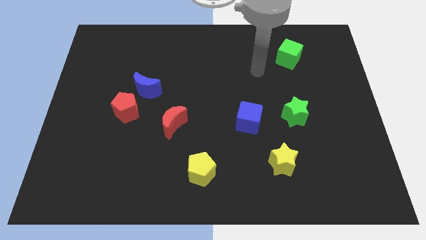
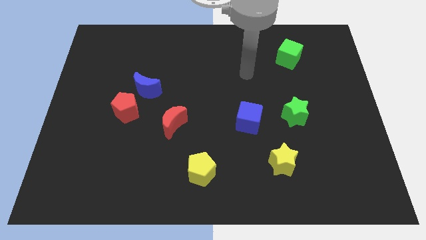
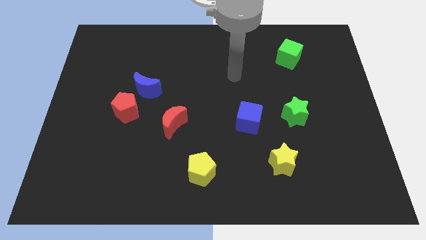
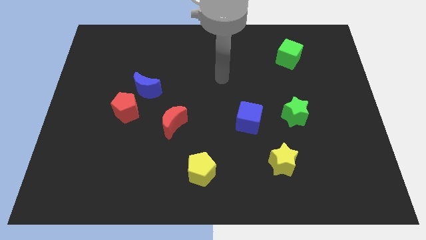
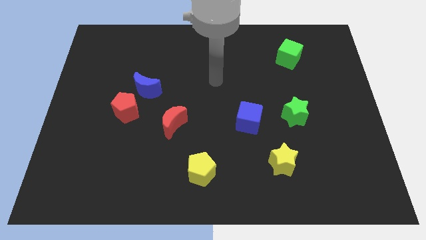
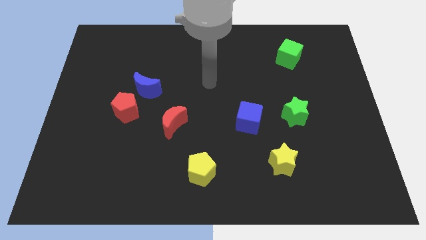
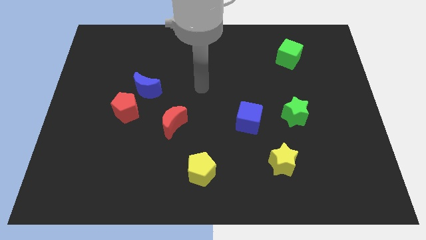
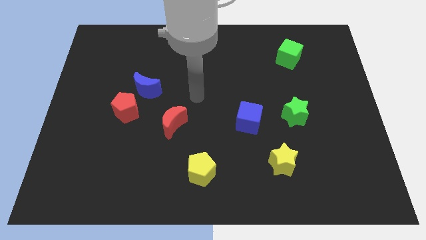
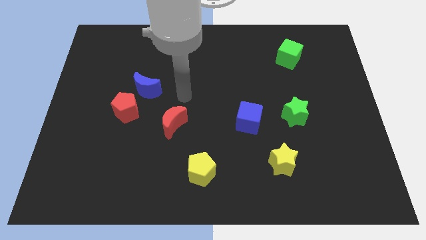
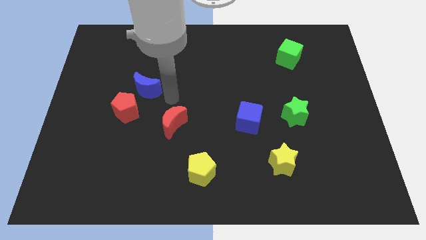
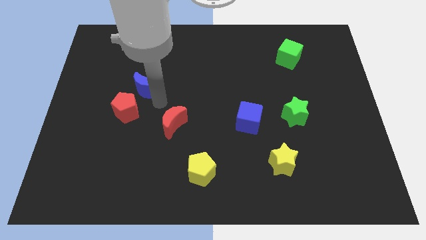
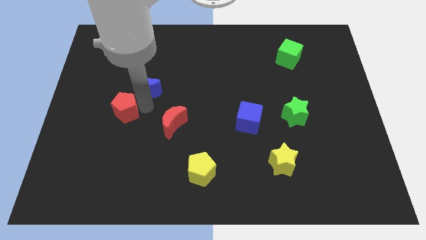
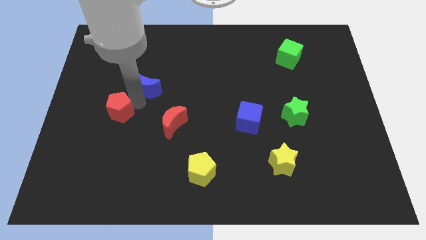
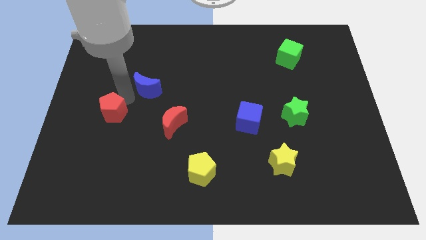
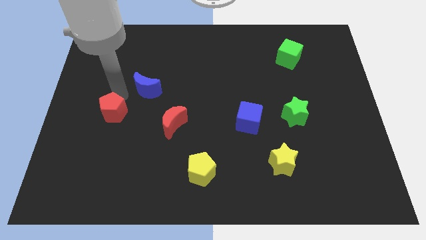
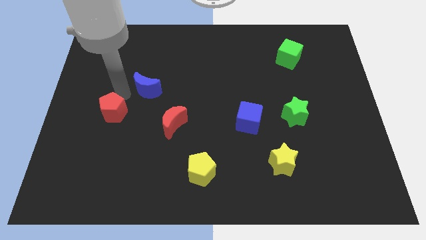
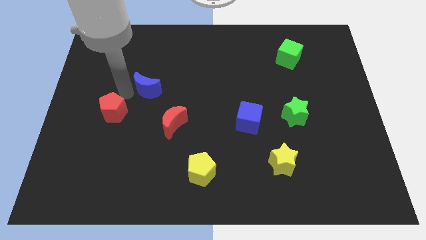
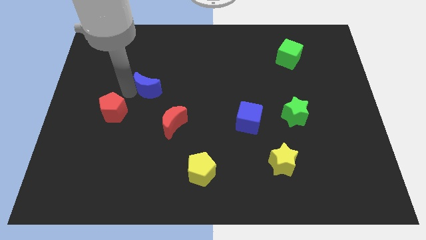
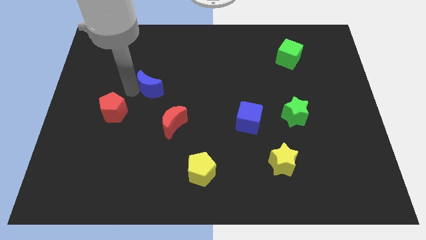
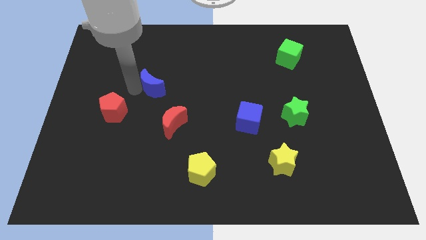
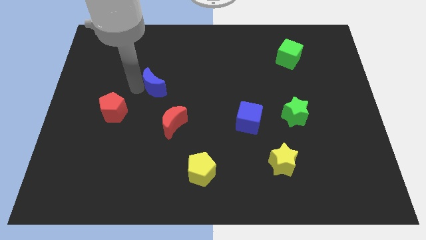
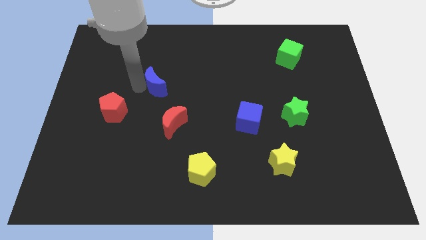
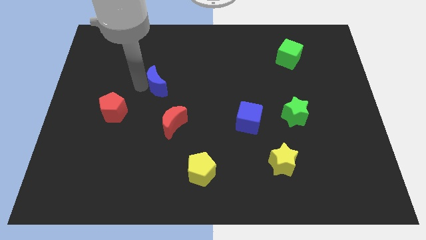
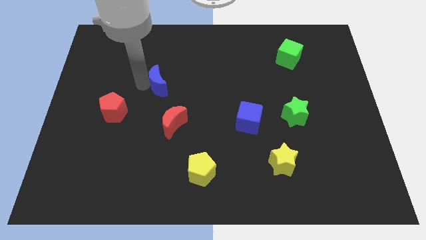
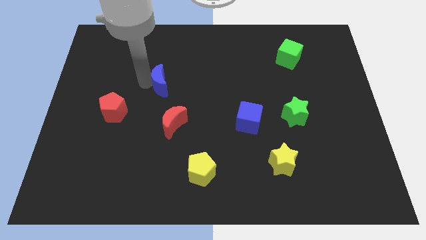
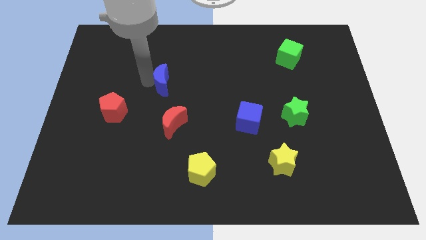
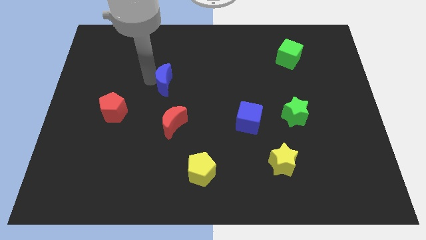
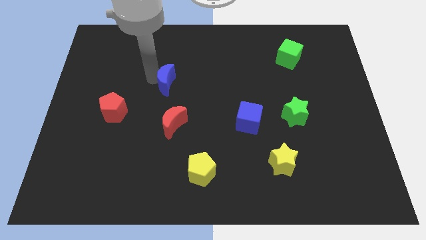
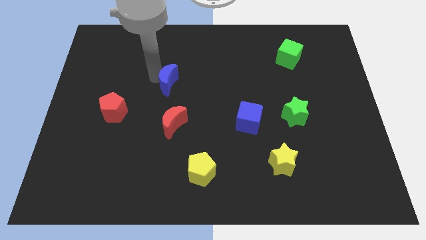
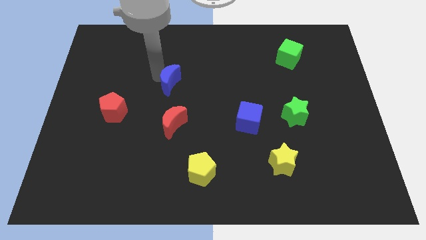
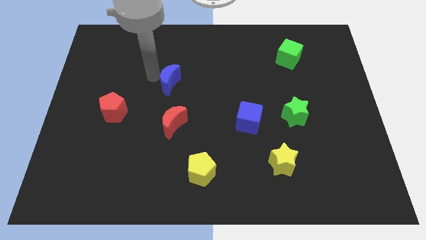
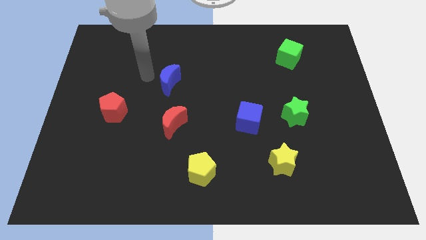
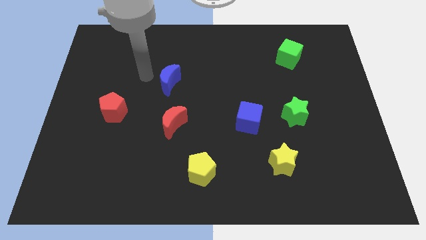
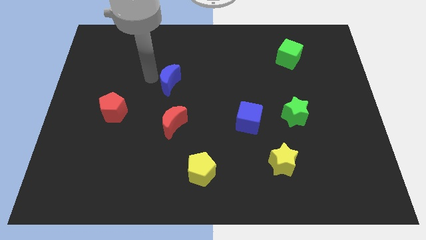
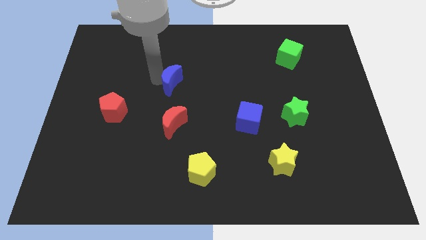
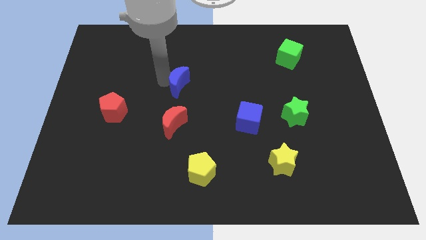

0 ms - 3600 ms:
slide the blue moon a little bit right

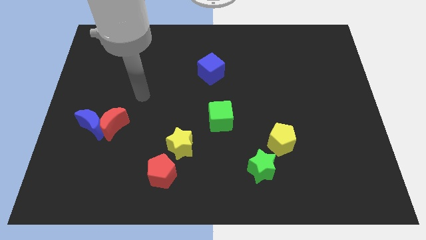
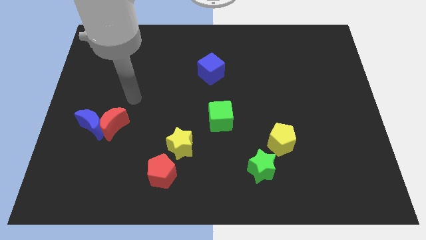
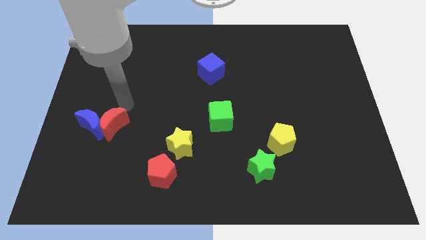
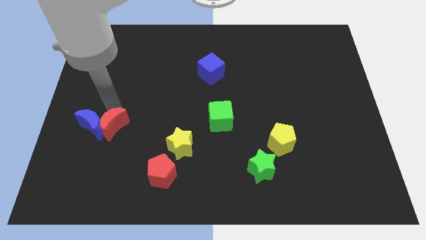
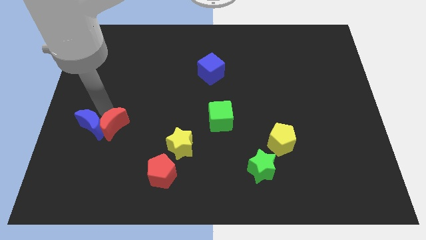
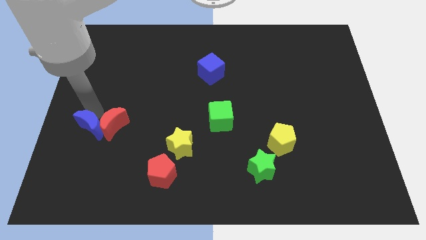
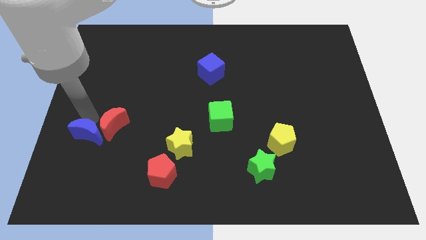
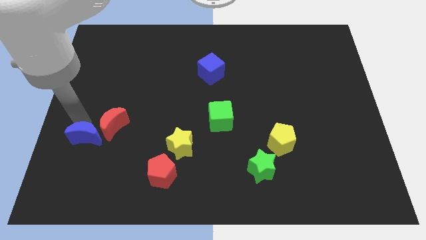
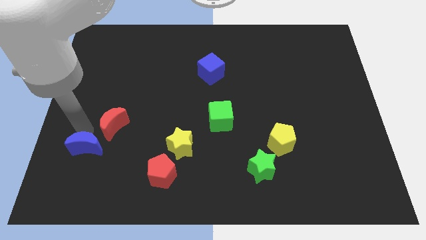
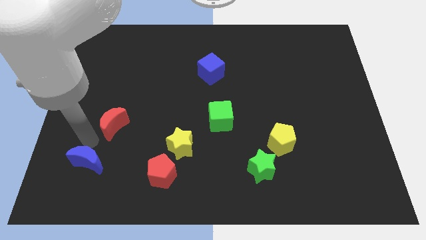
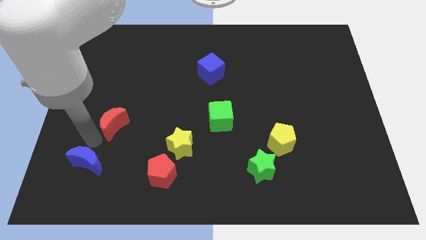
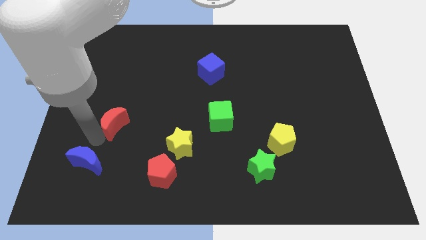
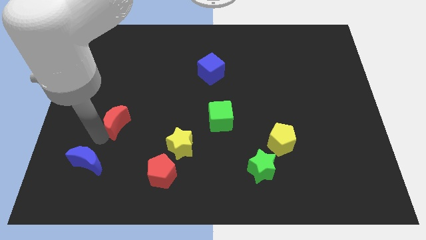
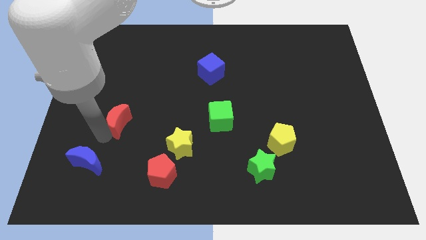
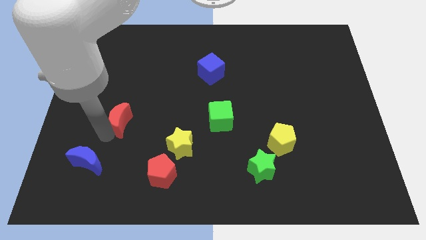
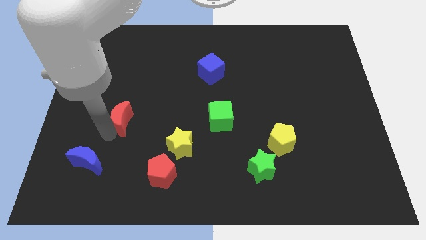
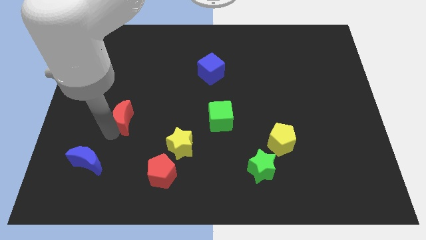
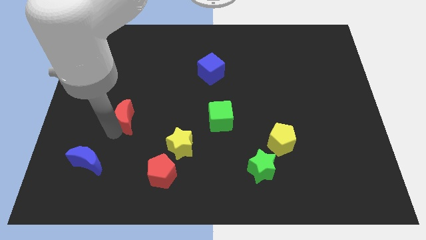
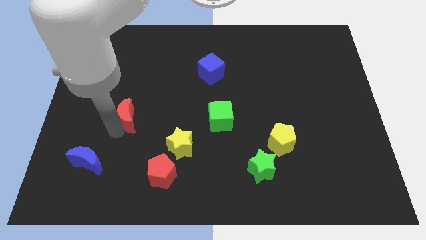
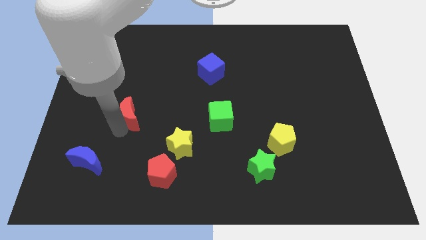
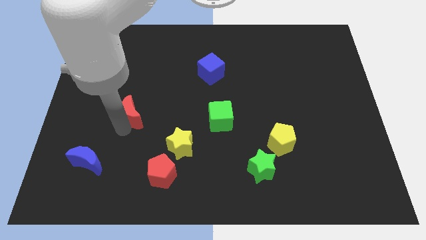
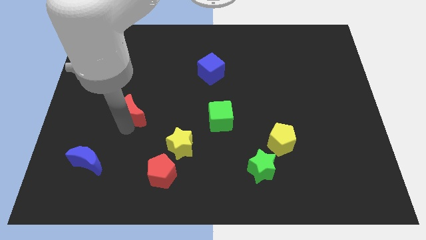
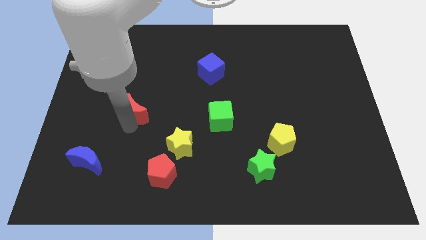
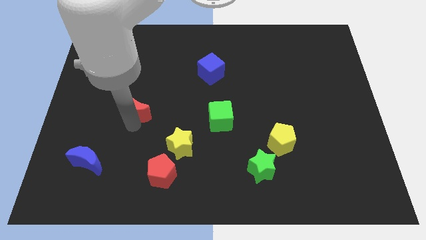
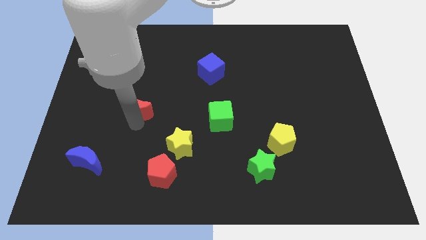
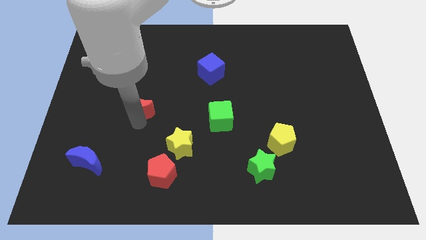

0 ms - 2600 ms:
slightly slide the red moon up and right diagonally

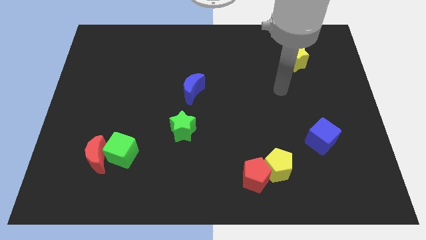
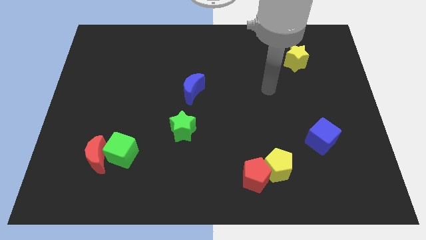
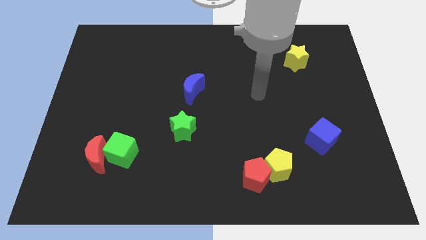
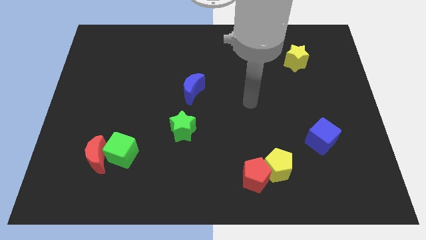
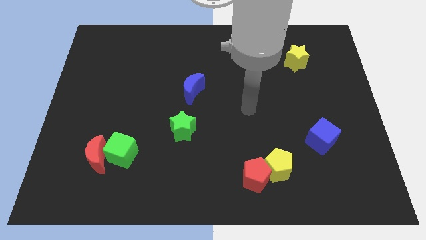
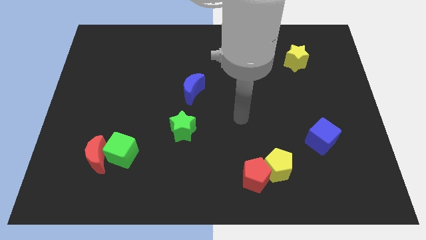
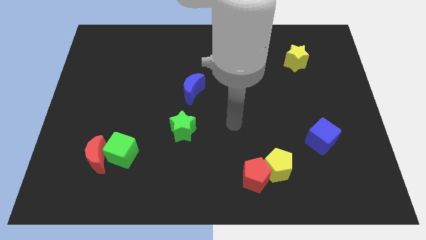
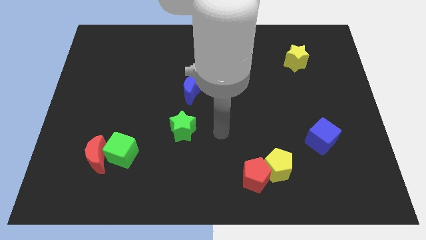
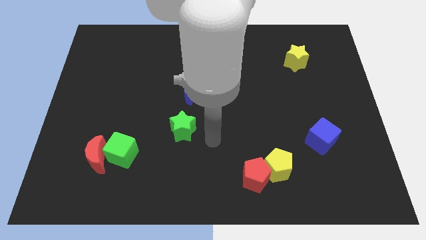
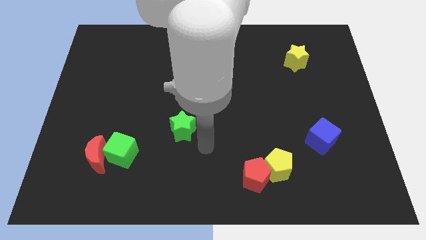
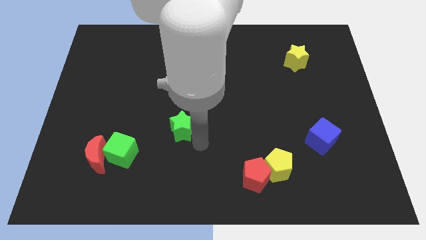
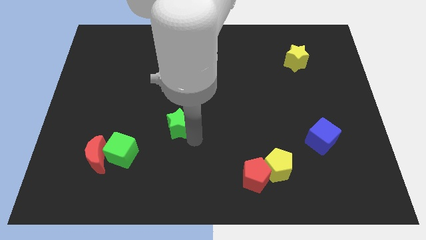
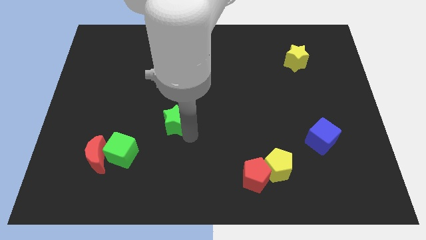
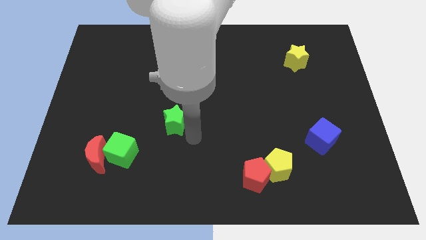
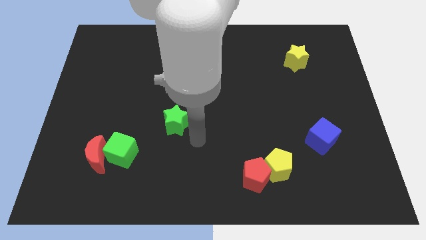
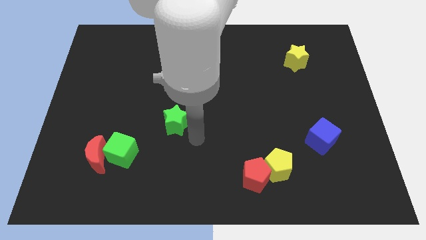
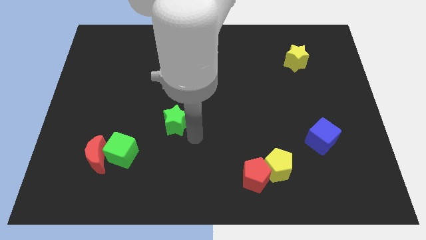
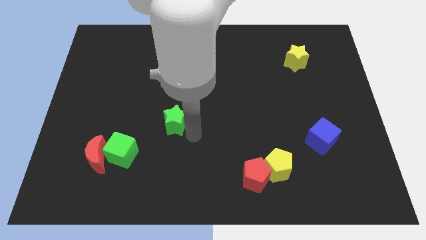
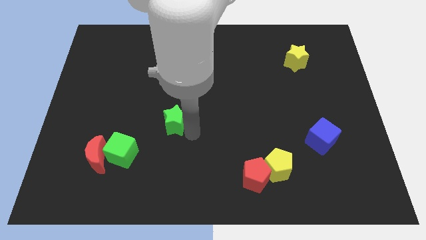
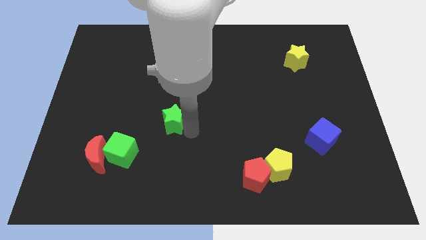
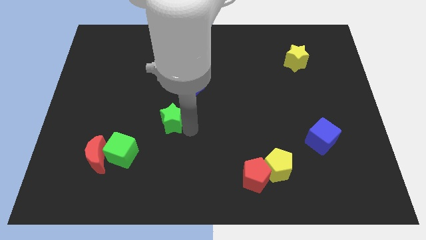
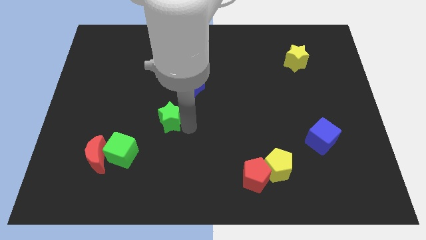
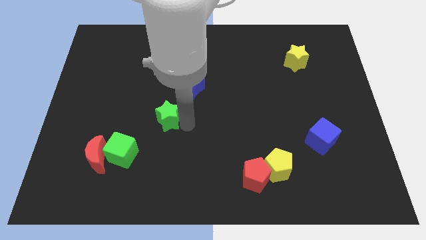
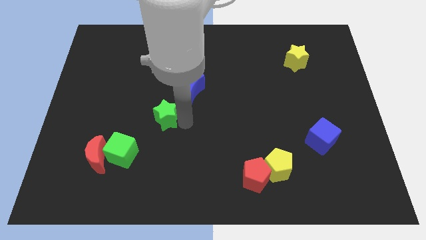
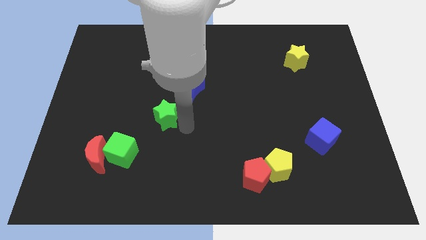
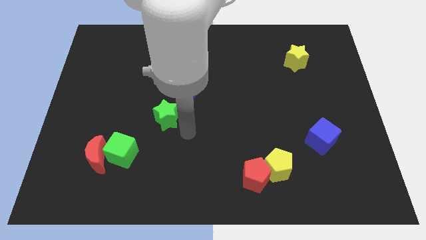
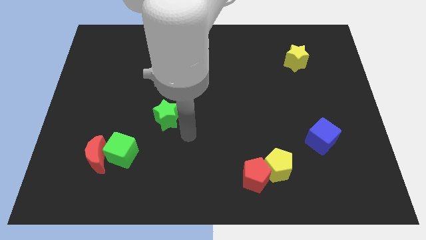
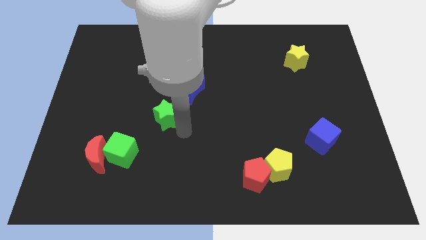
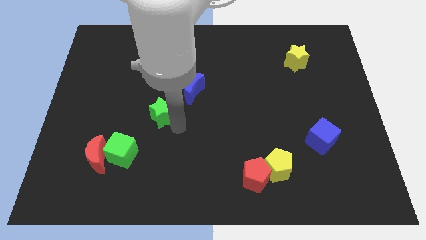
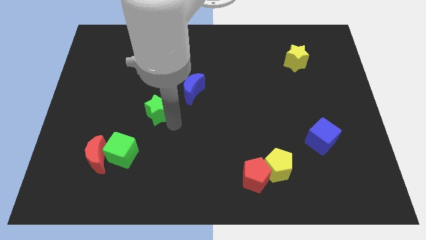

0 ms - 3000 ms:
slightly push the green star diagonally upwards and left
